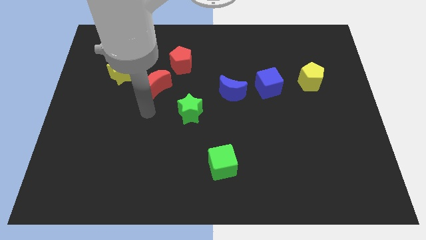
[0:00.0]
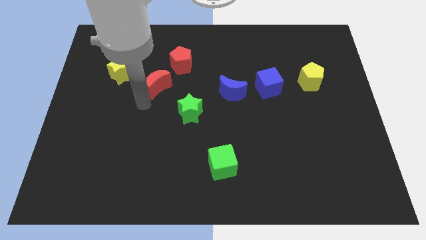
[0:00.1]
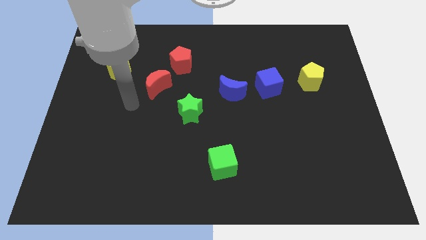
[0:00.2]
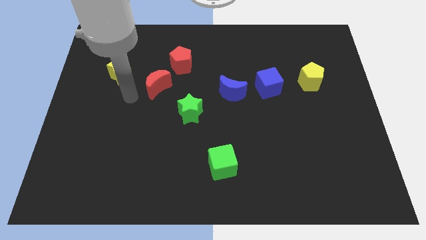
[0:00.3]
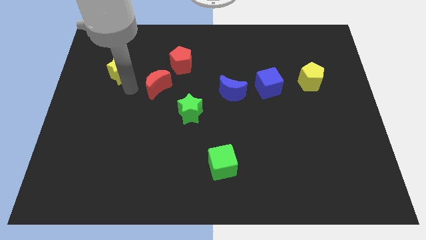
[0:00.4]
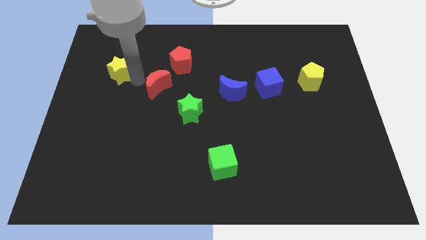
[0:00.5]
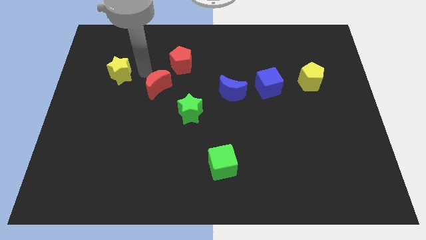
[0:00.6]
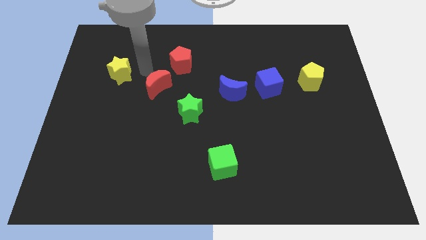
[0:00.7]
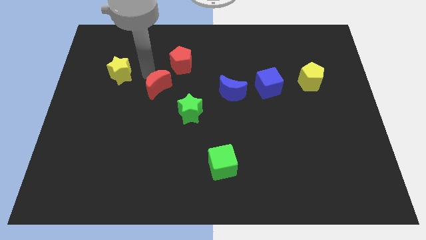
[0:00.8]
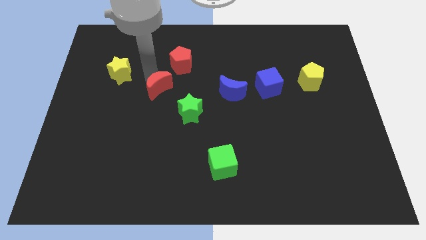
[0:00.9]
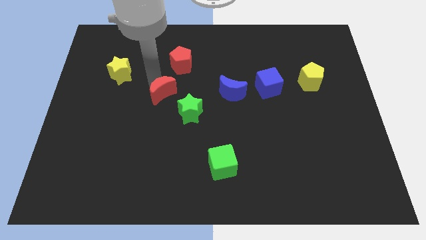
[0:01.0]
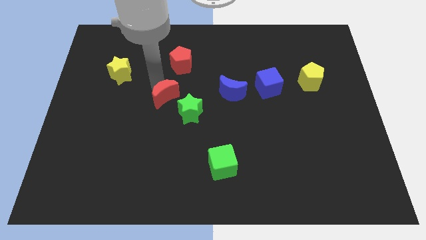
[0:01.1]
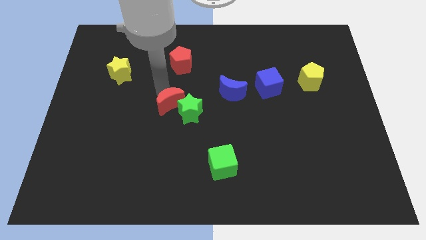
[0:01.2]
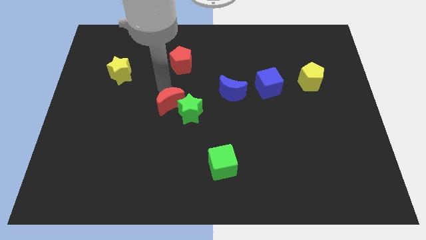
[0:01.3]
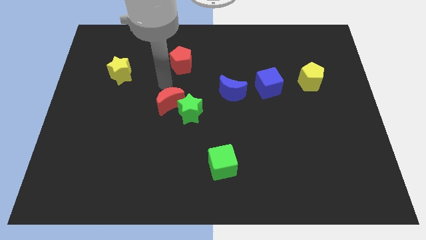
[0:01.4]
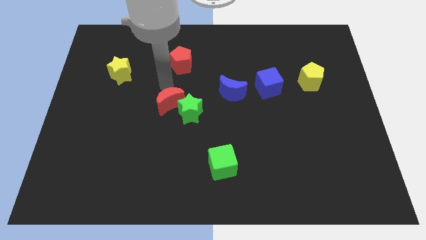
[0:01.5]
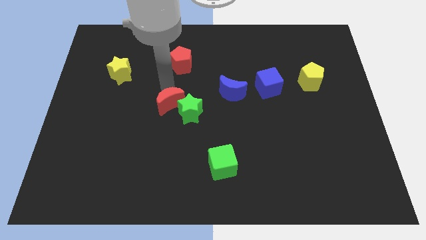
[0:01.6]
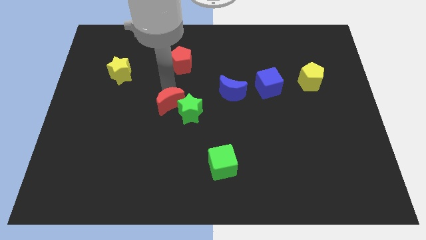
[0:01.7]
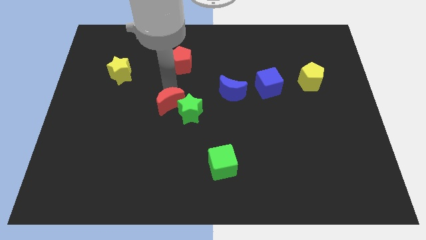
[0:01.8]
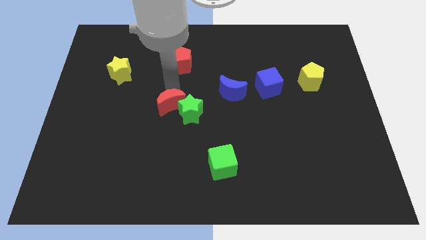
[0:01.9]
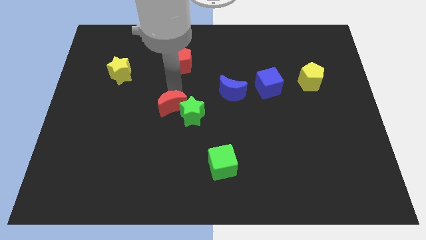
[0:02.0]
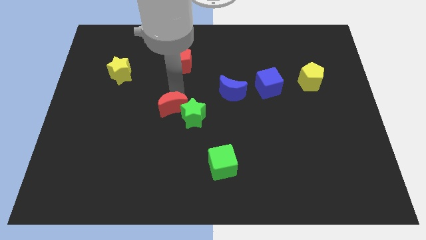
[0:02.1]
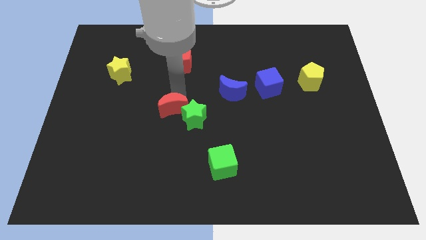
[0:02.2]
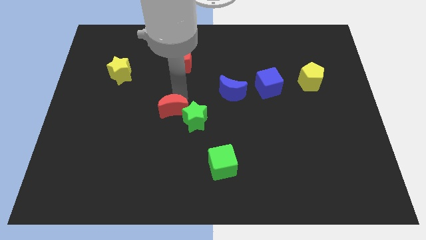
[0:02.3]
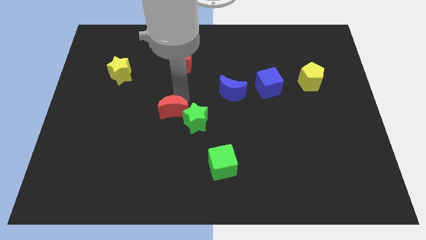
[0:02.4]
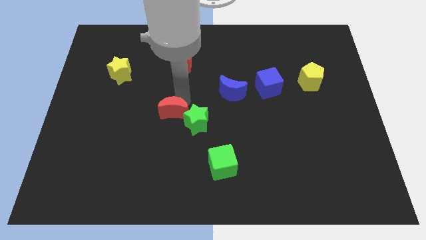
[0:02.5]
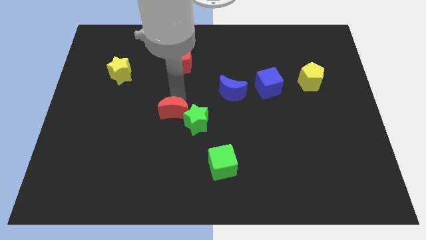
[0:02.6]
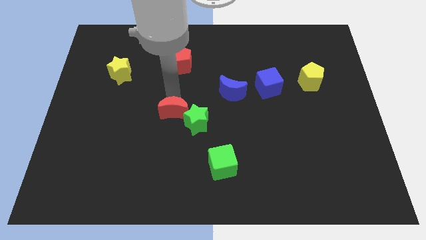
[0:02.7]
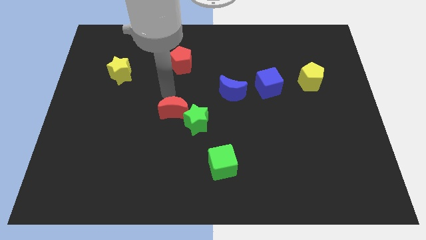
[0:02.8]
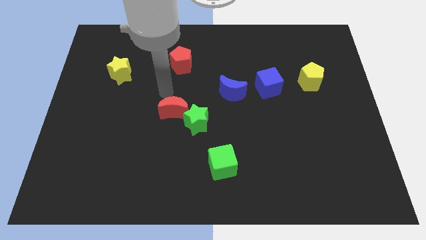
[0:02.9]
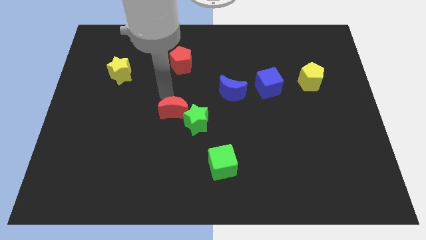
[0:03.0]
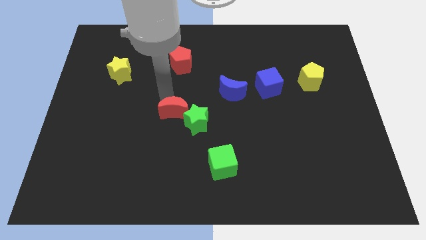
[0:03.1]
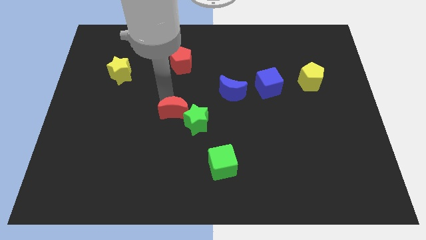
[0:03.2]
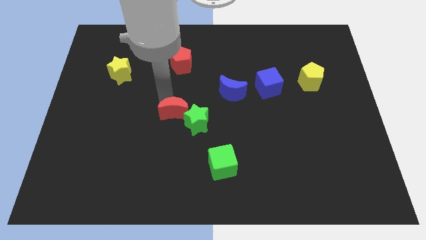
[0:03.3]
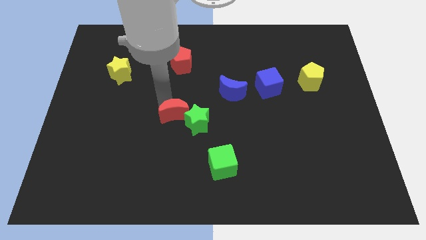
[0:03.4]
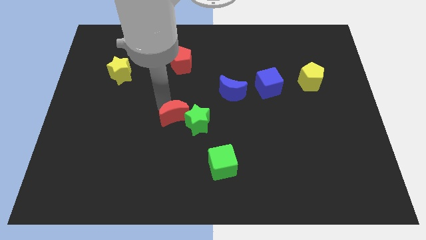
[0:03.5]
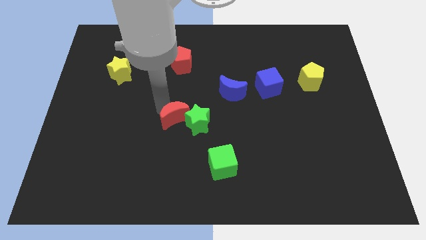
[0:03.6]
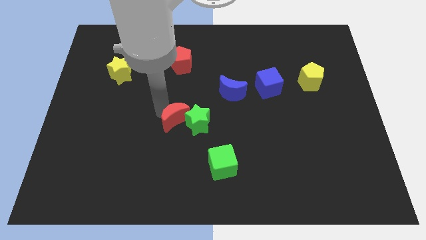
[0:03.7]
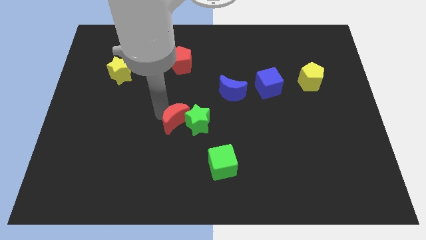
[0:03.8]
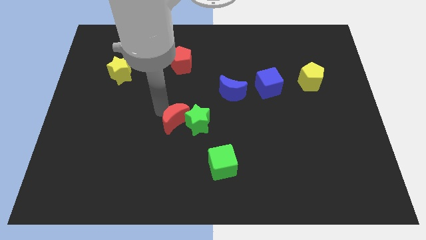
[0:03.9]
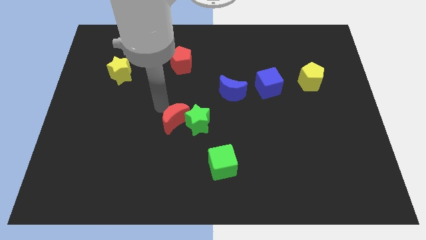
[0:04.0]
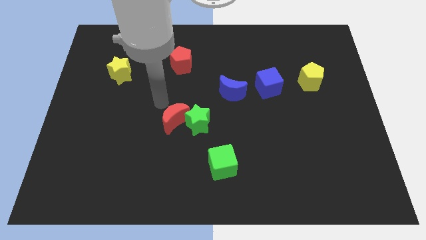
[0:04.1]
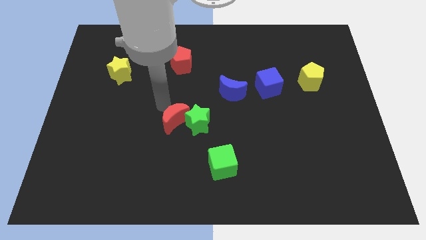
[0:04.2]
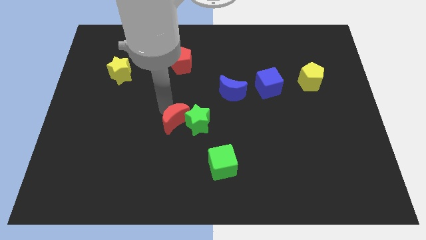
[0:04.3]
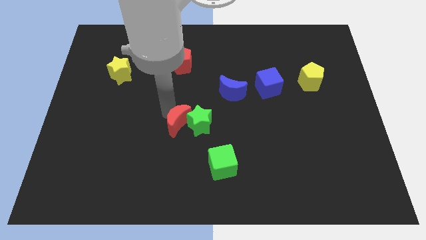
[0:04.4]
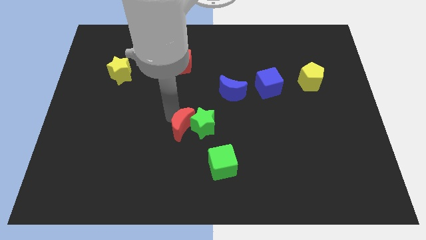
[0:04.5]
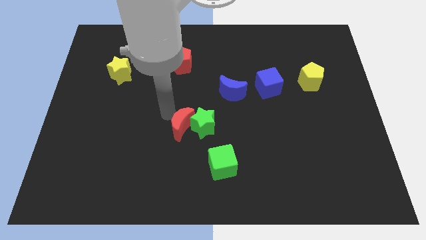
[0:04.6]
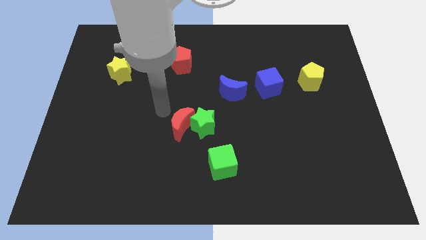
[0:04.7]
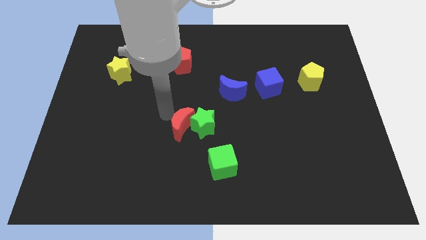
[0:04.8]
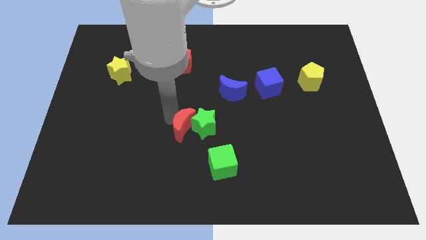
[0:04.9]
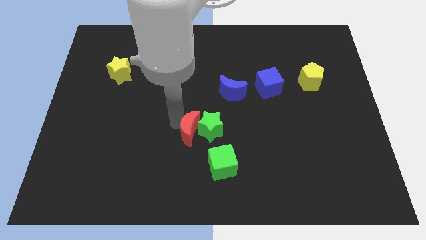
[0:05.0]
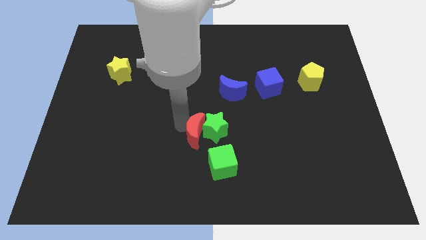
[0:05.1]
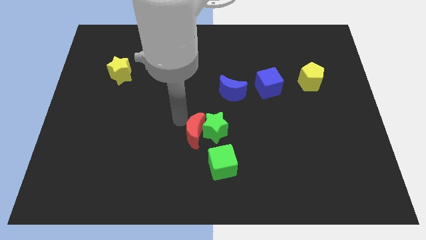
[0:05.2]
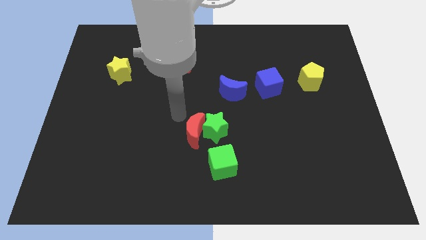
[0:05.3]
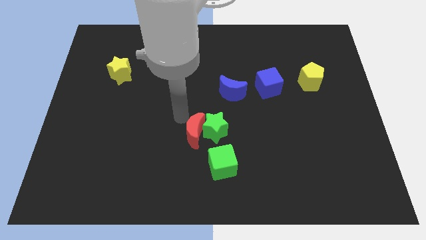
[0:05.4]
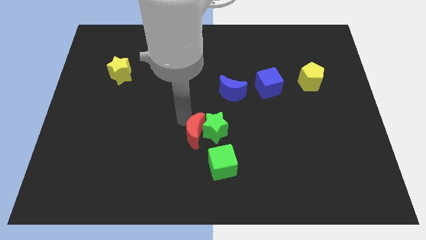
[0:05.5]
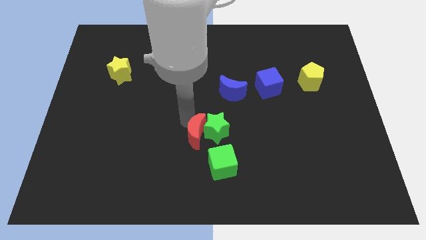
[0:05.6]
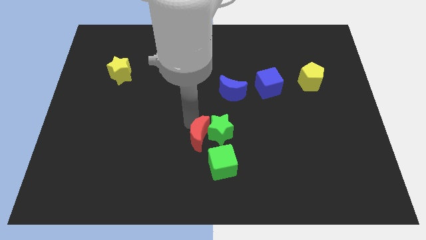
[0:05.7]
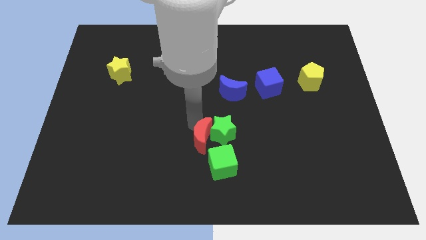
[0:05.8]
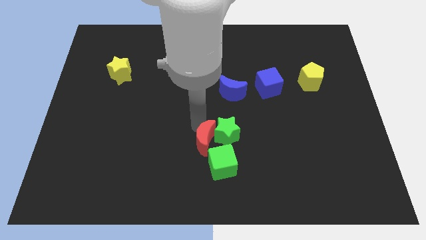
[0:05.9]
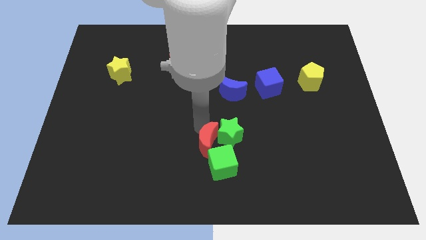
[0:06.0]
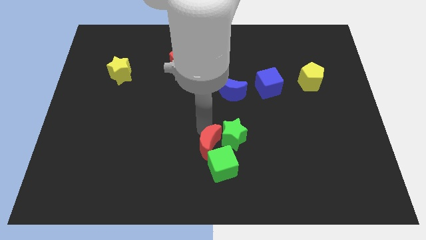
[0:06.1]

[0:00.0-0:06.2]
slide the red moon close to the green cube

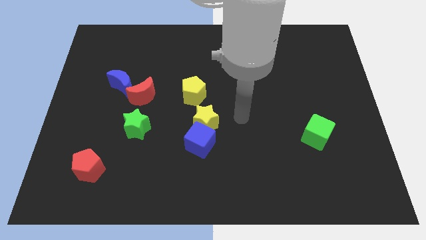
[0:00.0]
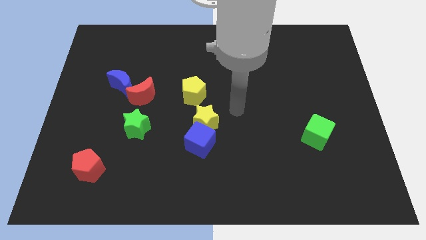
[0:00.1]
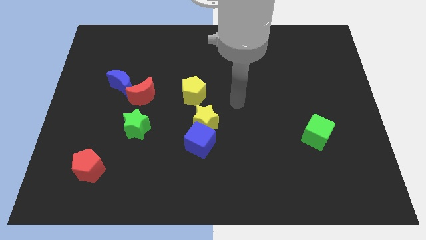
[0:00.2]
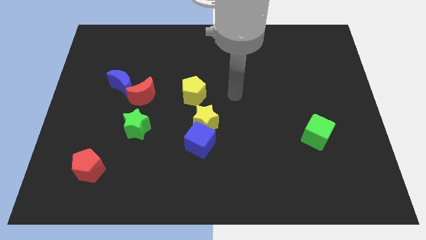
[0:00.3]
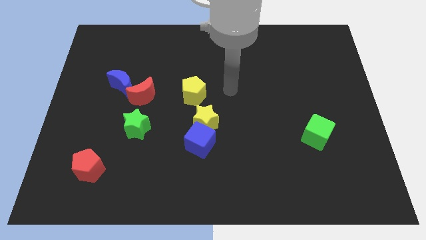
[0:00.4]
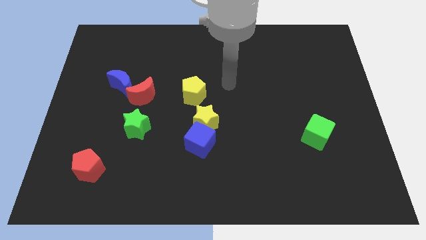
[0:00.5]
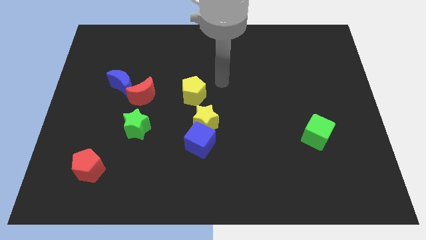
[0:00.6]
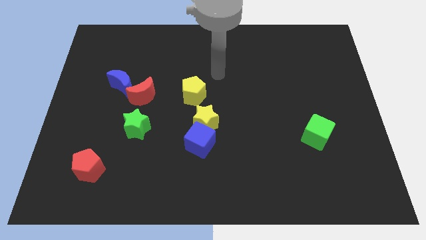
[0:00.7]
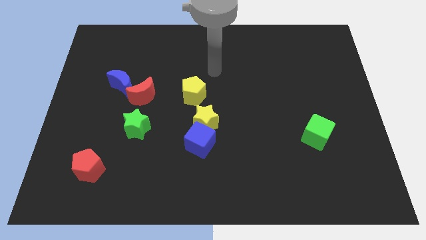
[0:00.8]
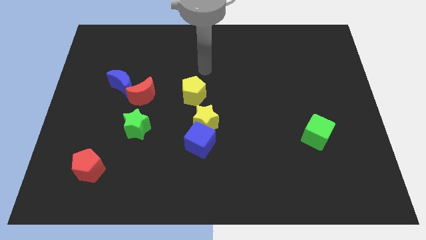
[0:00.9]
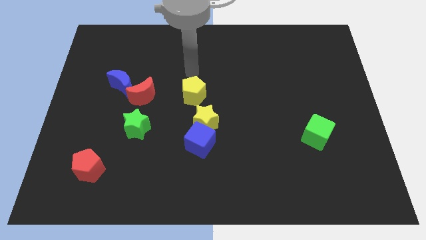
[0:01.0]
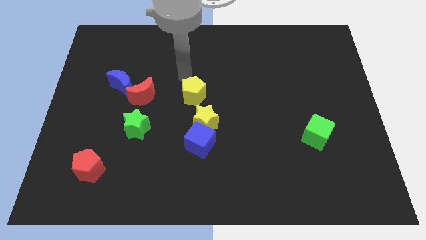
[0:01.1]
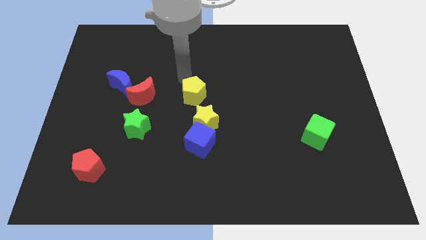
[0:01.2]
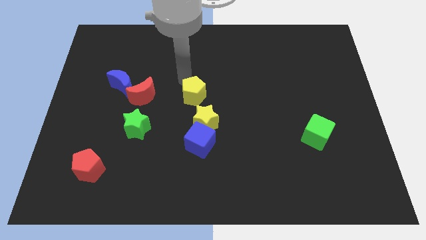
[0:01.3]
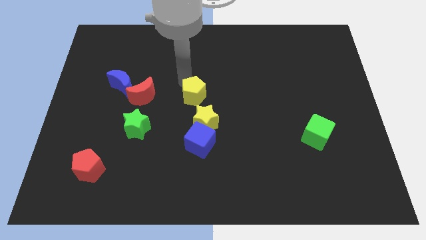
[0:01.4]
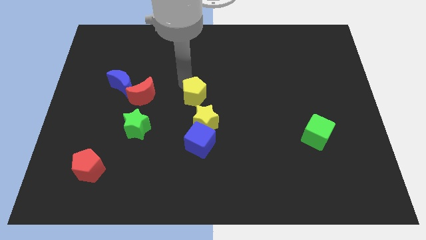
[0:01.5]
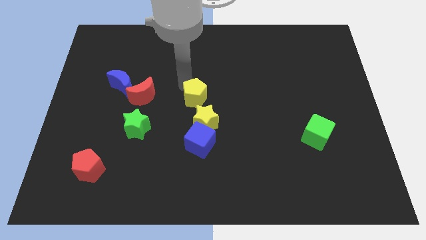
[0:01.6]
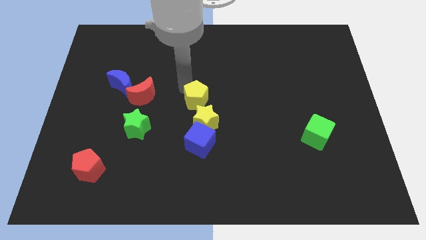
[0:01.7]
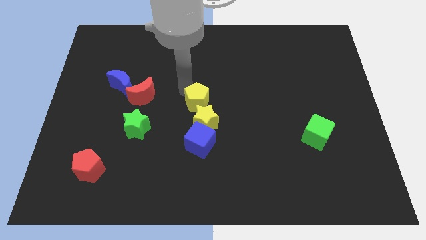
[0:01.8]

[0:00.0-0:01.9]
push the yellow pentagon towards the yellow star
